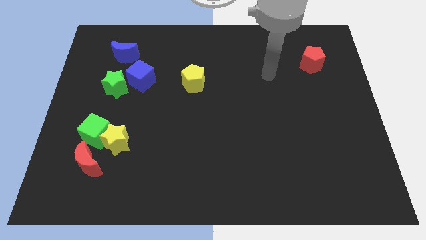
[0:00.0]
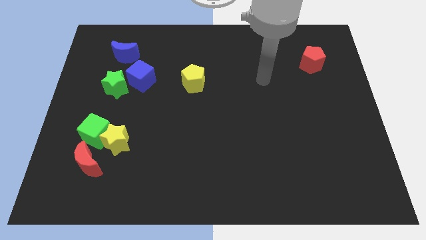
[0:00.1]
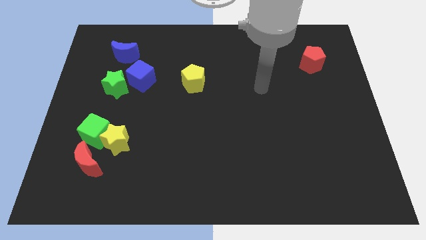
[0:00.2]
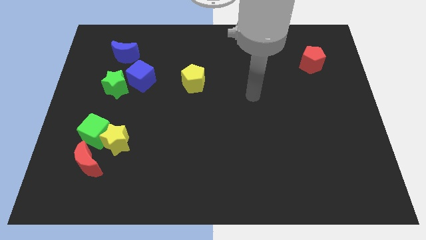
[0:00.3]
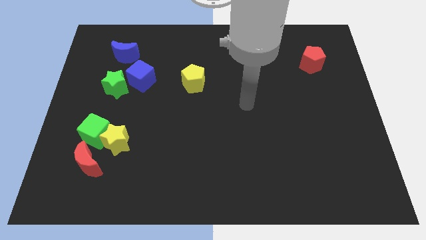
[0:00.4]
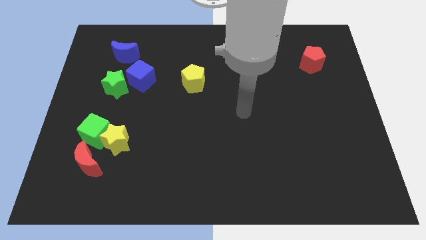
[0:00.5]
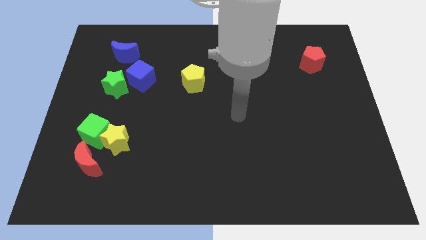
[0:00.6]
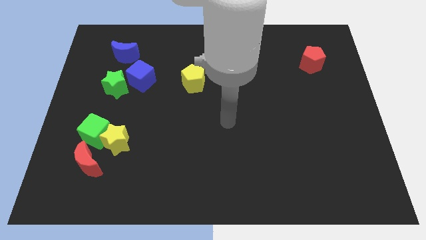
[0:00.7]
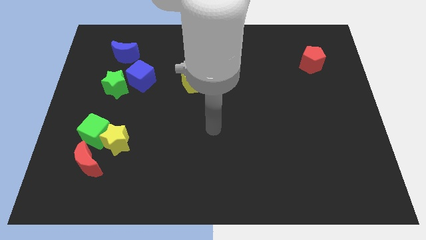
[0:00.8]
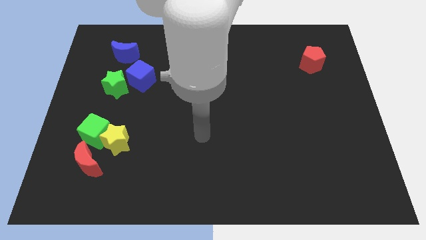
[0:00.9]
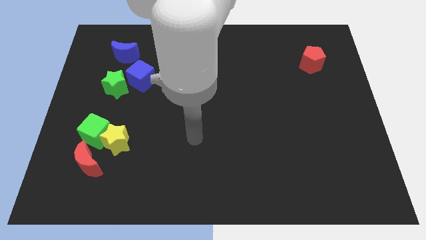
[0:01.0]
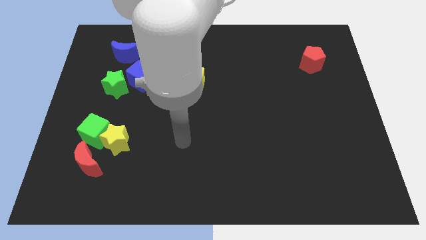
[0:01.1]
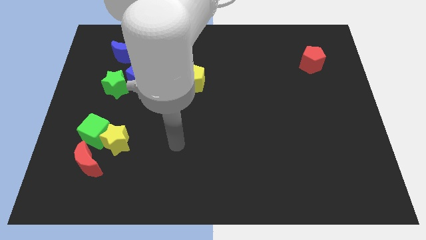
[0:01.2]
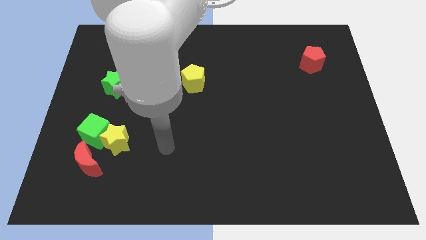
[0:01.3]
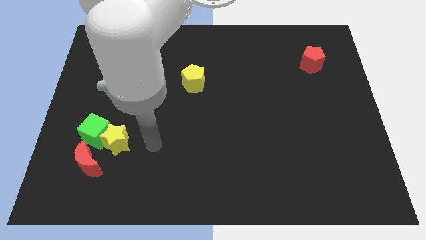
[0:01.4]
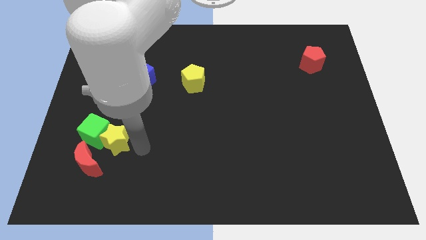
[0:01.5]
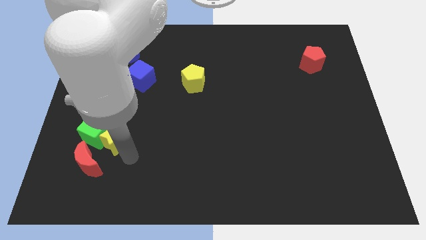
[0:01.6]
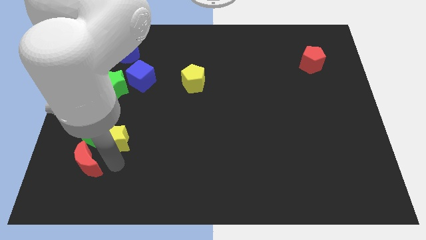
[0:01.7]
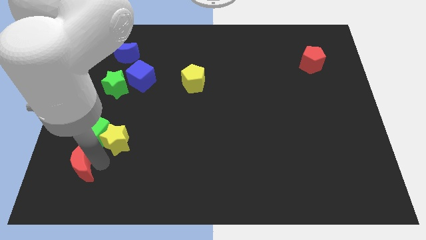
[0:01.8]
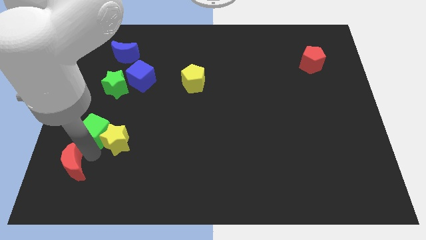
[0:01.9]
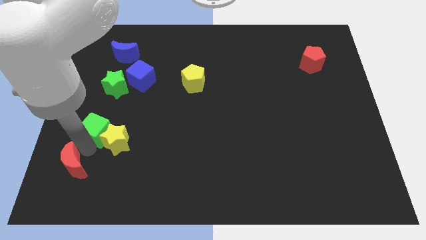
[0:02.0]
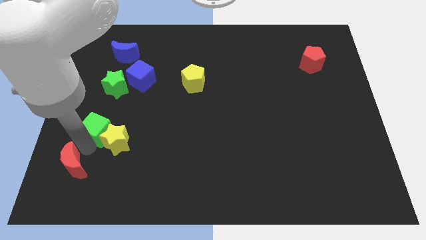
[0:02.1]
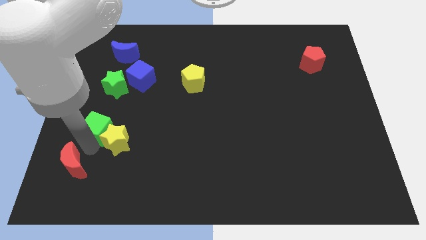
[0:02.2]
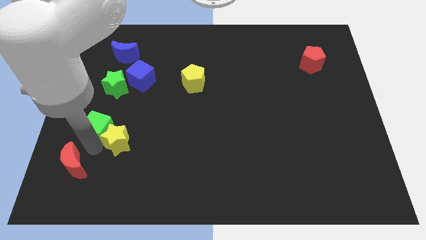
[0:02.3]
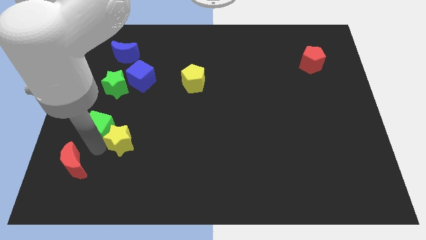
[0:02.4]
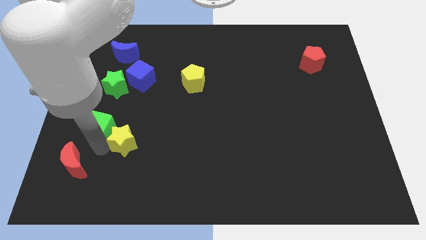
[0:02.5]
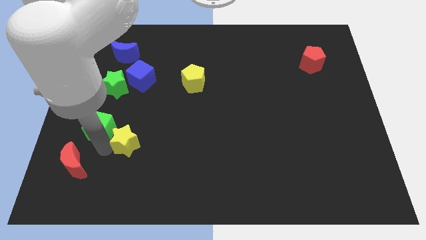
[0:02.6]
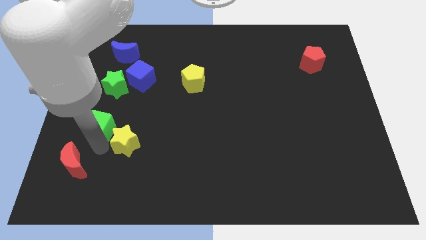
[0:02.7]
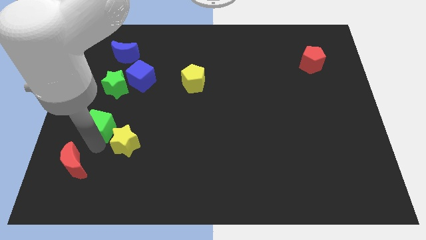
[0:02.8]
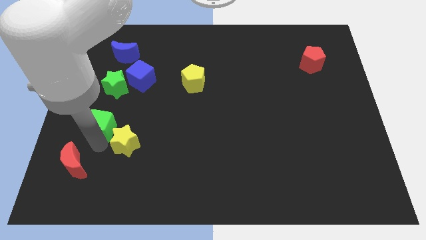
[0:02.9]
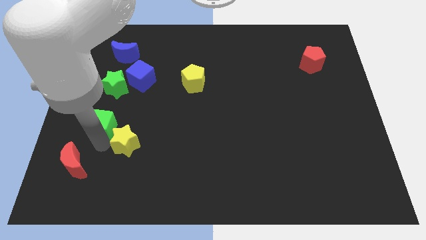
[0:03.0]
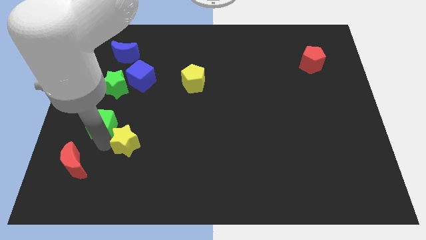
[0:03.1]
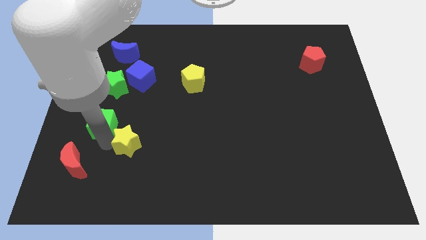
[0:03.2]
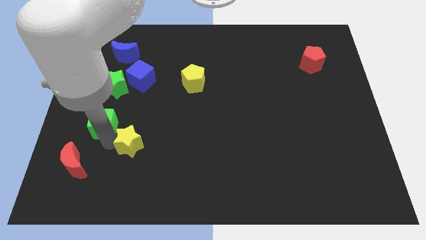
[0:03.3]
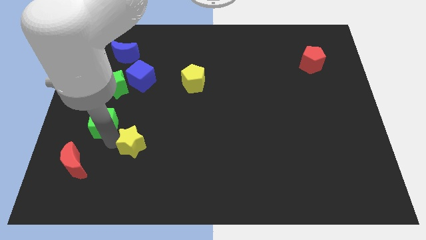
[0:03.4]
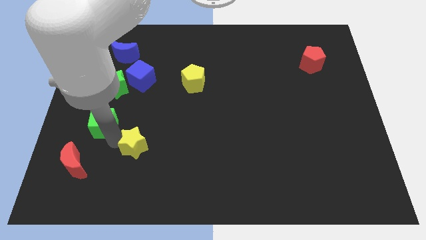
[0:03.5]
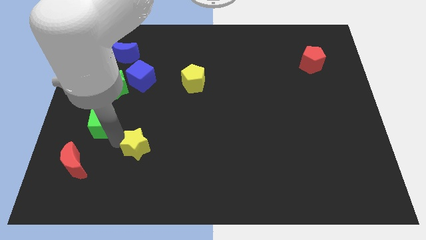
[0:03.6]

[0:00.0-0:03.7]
separate the yellow star from the green cube and red moon

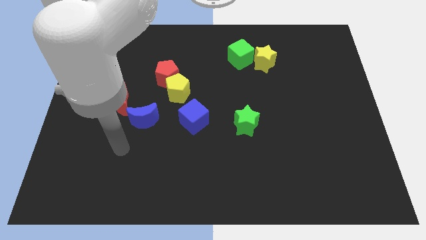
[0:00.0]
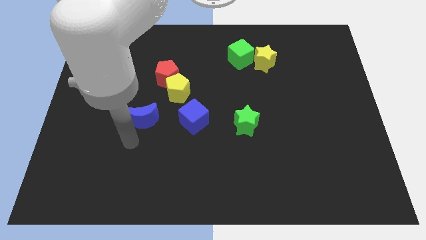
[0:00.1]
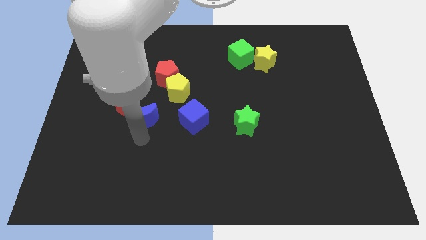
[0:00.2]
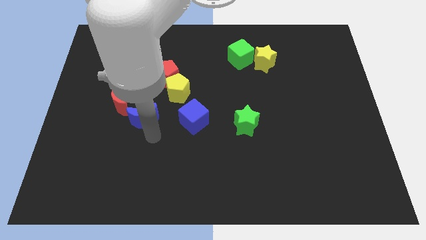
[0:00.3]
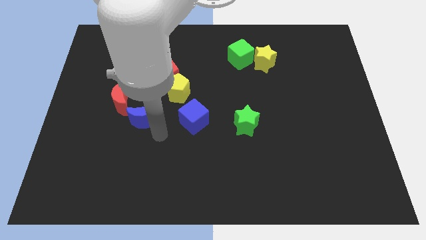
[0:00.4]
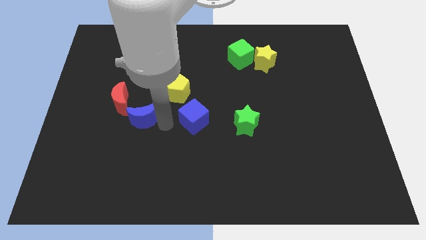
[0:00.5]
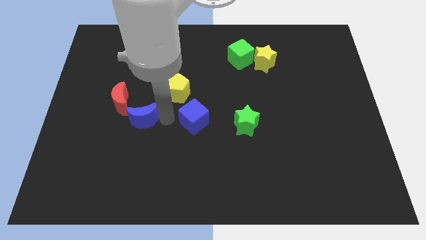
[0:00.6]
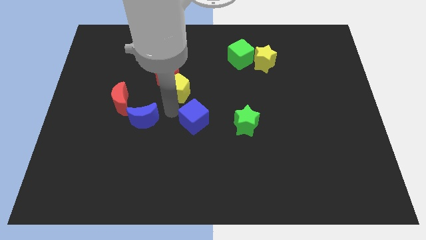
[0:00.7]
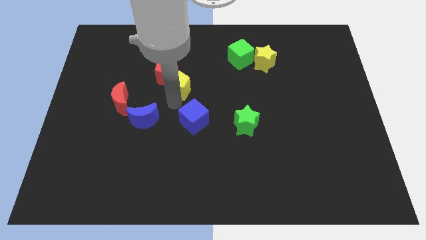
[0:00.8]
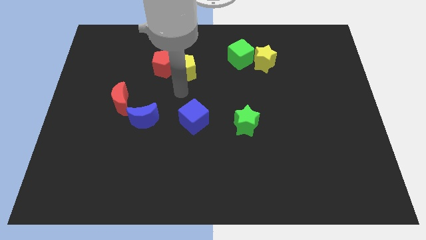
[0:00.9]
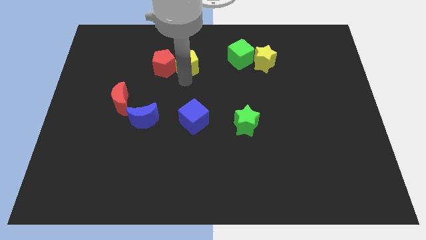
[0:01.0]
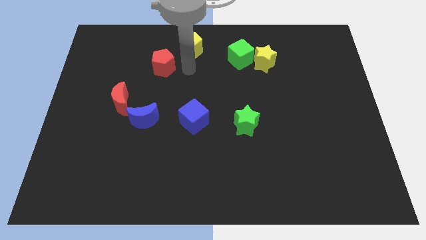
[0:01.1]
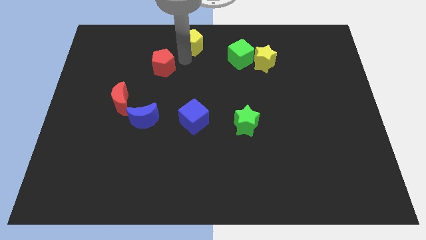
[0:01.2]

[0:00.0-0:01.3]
pull the red pentagon apart from the yellow pentagon

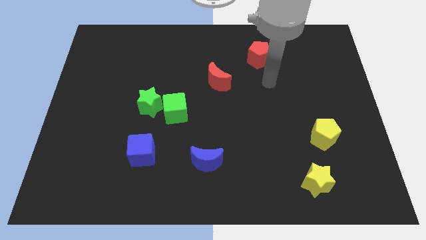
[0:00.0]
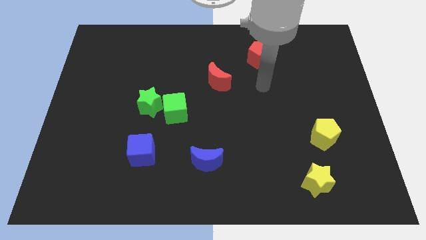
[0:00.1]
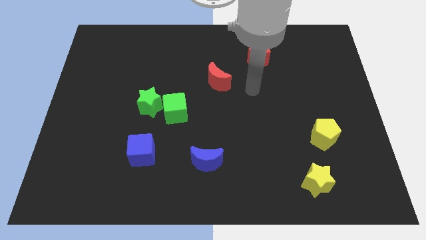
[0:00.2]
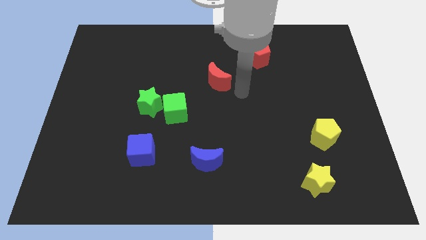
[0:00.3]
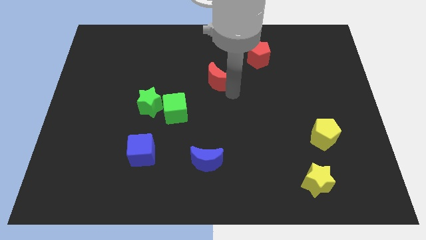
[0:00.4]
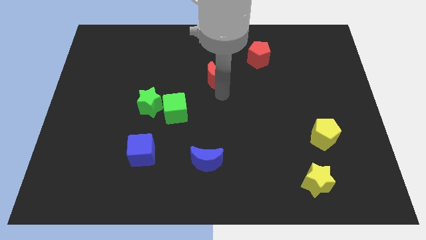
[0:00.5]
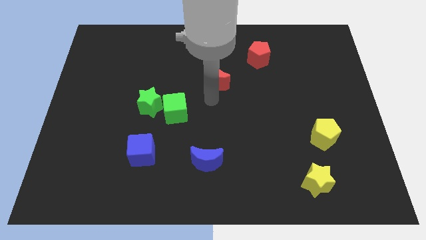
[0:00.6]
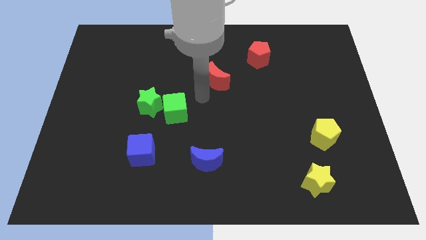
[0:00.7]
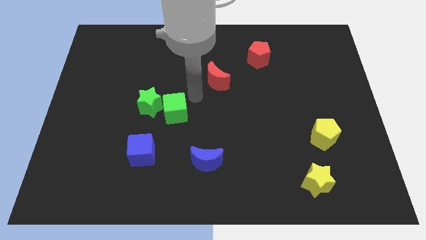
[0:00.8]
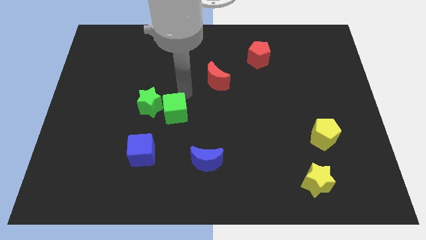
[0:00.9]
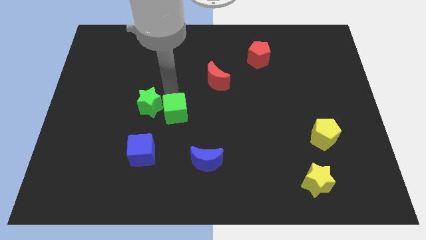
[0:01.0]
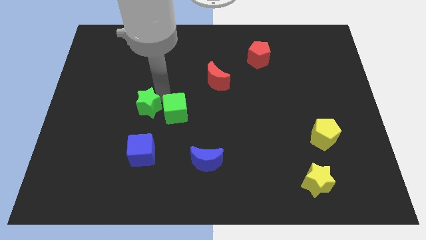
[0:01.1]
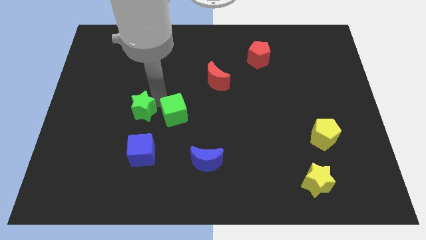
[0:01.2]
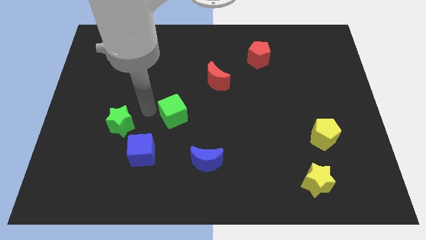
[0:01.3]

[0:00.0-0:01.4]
move the green cube away from the green star

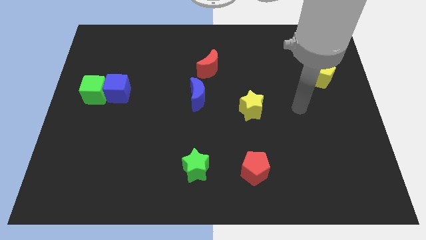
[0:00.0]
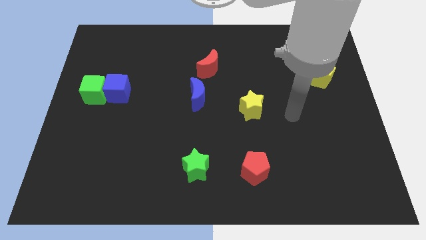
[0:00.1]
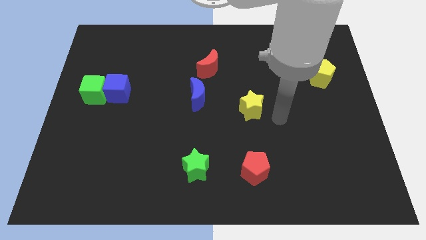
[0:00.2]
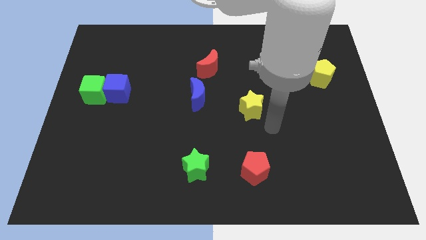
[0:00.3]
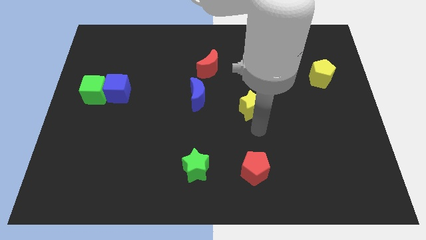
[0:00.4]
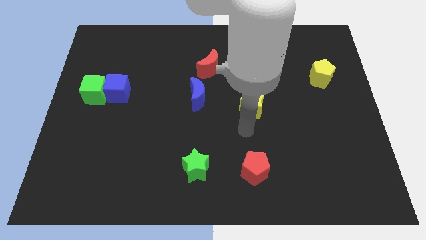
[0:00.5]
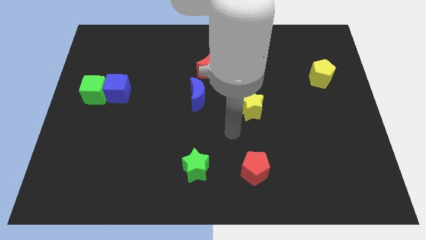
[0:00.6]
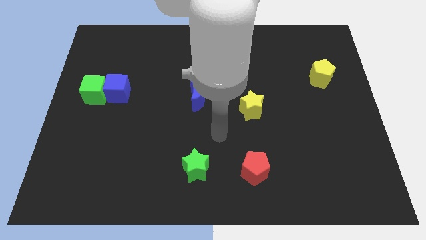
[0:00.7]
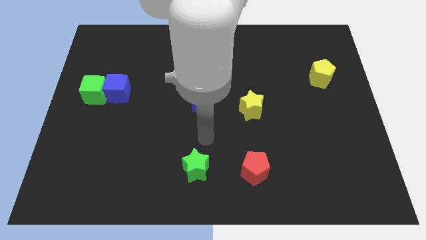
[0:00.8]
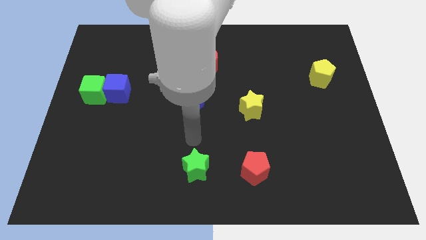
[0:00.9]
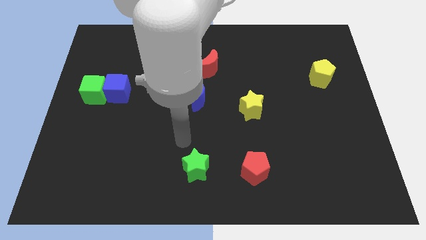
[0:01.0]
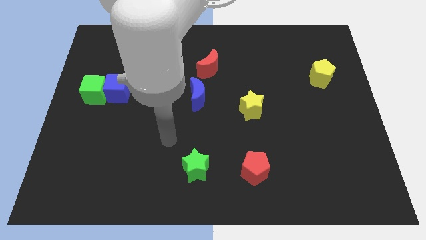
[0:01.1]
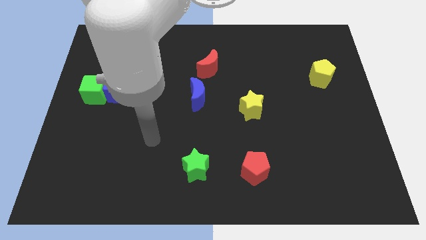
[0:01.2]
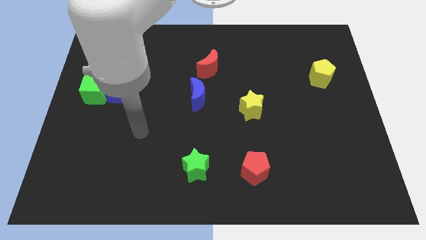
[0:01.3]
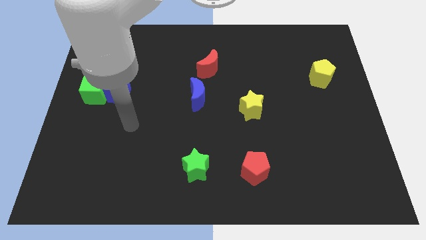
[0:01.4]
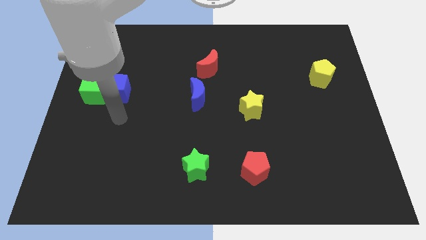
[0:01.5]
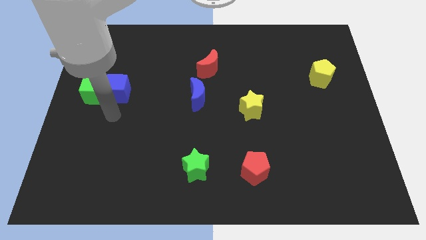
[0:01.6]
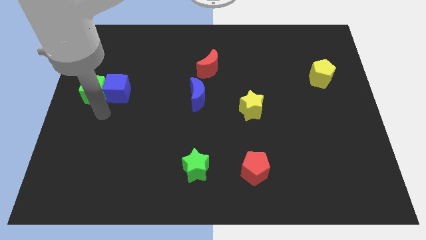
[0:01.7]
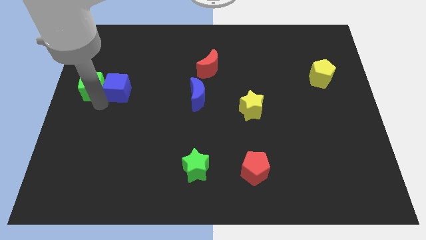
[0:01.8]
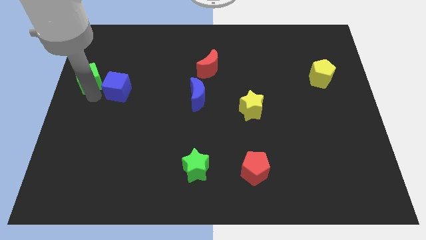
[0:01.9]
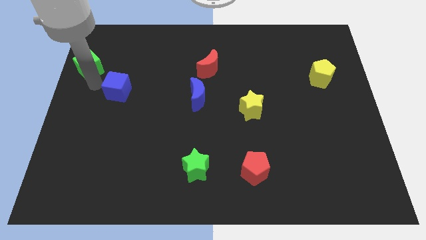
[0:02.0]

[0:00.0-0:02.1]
move the blue cube away from the green cube

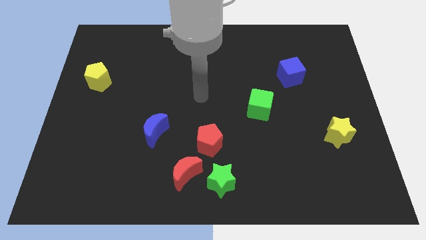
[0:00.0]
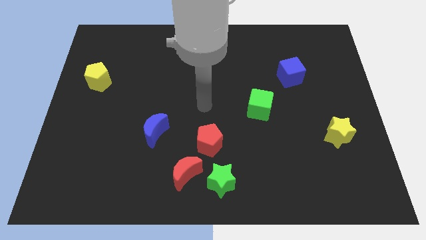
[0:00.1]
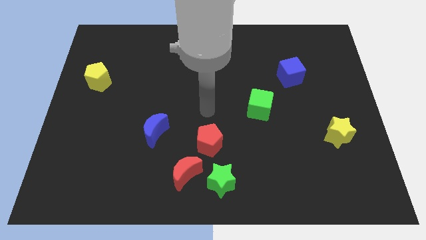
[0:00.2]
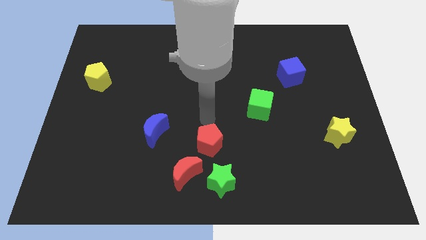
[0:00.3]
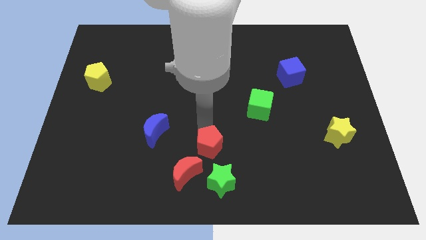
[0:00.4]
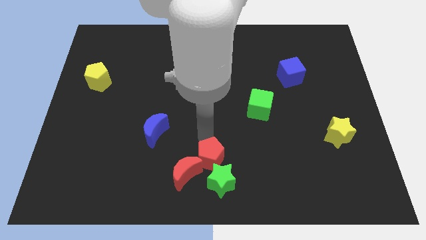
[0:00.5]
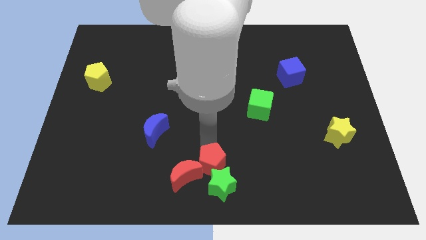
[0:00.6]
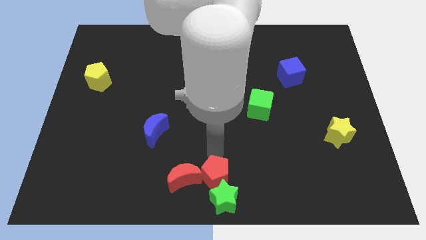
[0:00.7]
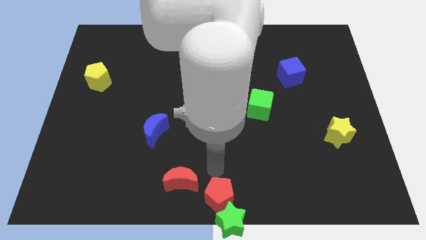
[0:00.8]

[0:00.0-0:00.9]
pull the red moon apart from the green star and red pentagon
